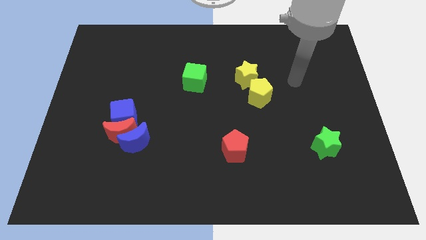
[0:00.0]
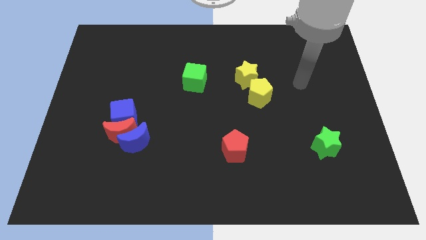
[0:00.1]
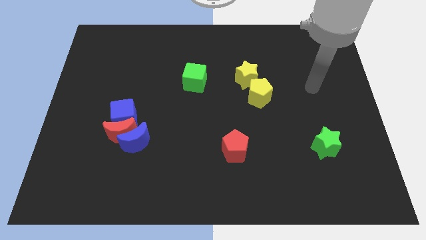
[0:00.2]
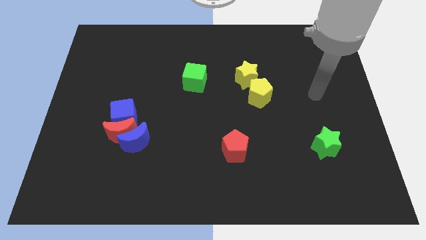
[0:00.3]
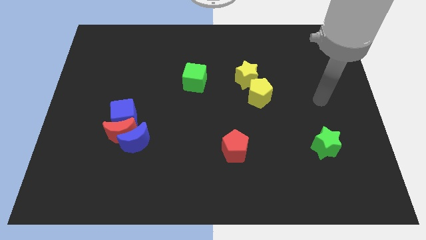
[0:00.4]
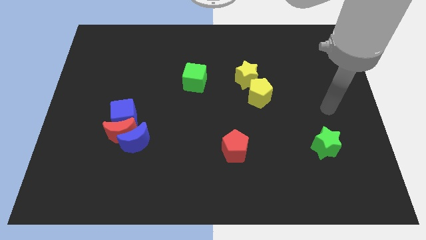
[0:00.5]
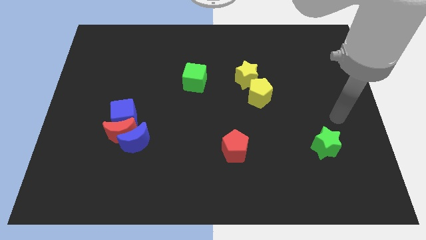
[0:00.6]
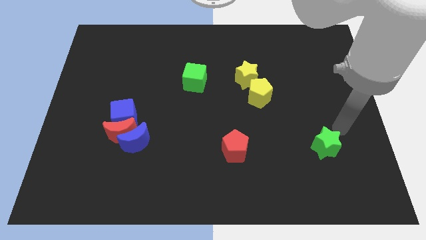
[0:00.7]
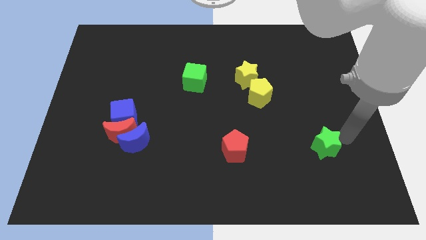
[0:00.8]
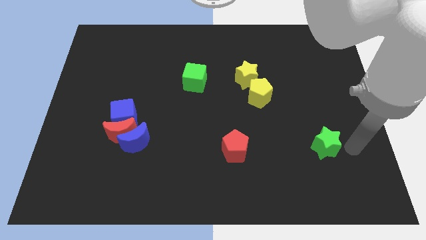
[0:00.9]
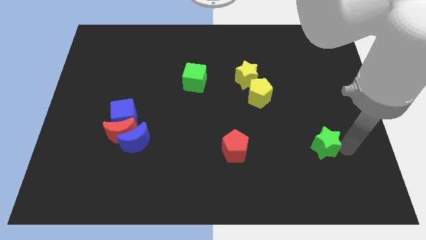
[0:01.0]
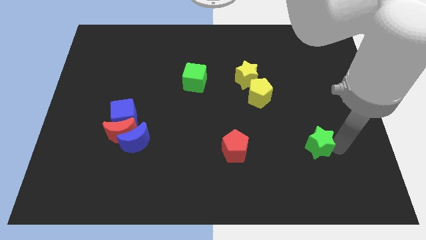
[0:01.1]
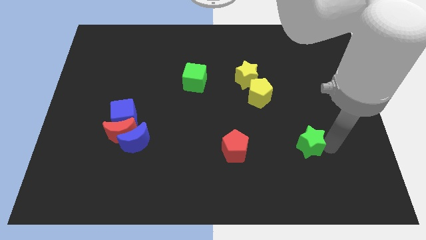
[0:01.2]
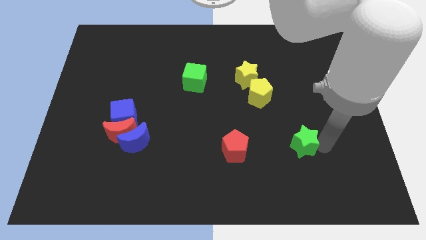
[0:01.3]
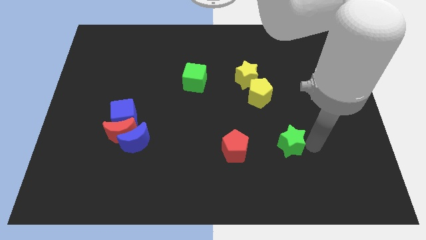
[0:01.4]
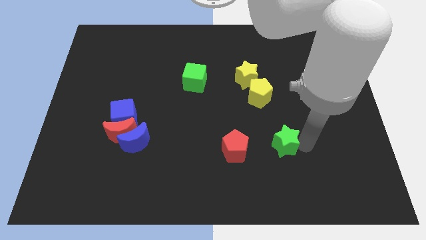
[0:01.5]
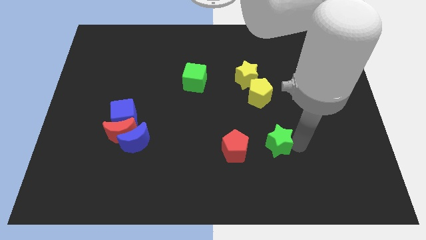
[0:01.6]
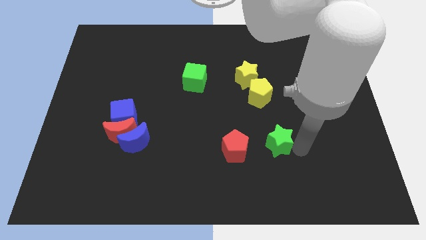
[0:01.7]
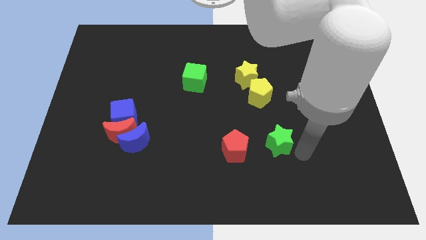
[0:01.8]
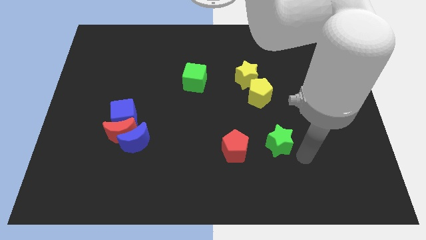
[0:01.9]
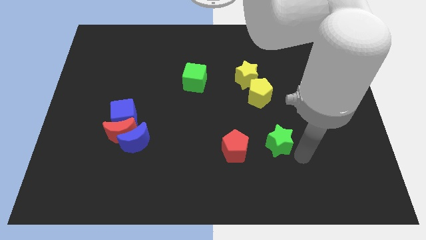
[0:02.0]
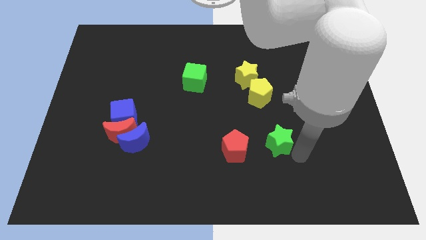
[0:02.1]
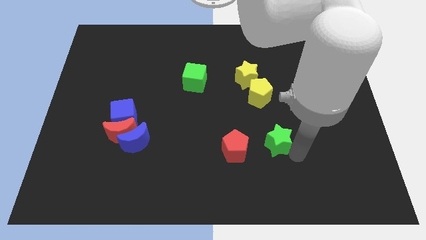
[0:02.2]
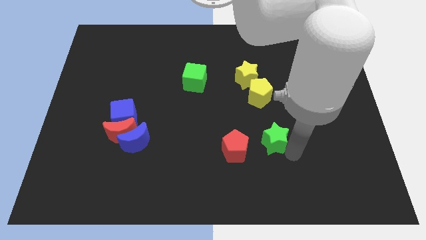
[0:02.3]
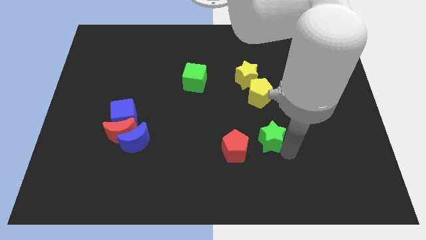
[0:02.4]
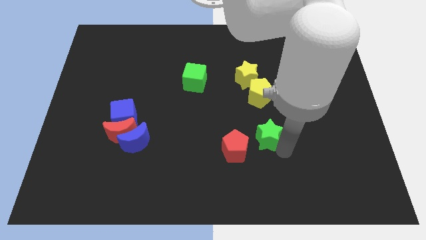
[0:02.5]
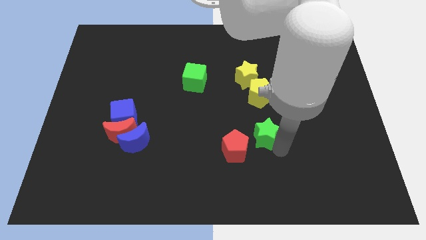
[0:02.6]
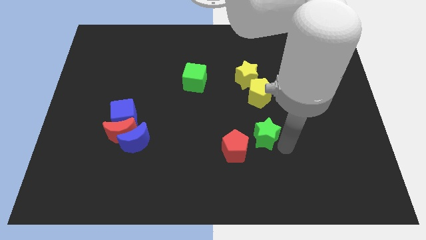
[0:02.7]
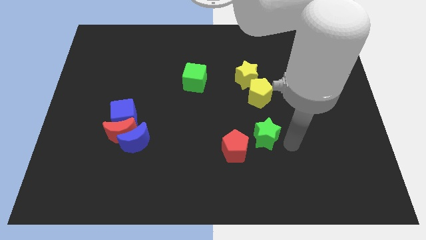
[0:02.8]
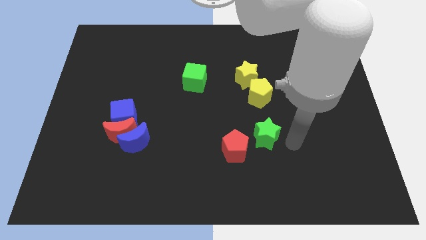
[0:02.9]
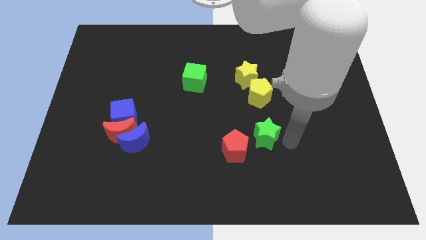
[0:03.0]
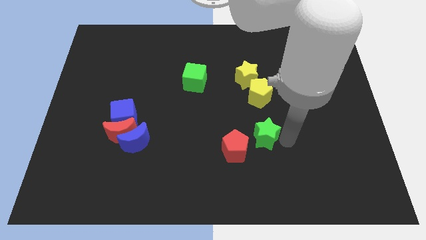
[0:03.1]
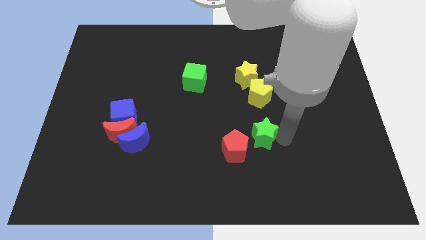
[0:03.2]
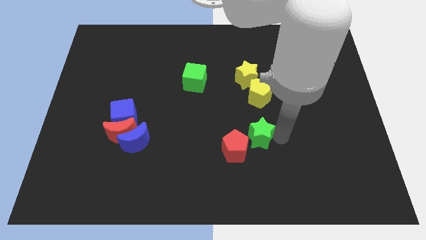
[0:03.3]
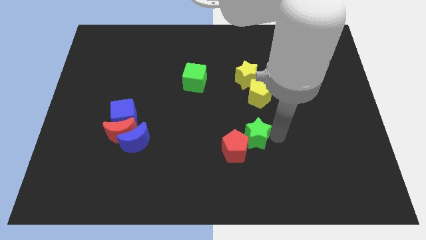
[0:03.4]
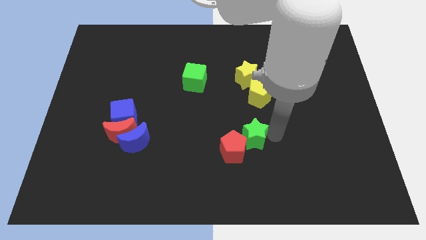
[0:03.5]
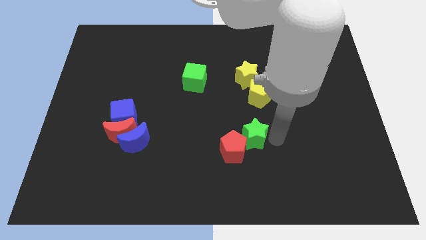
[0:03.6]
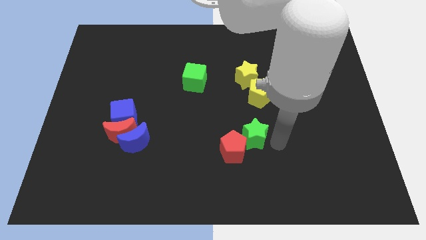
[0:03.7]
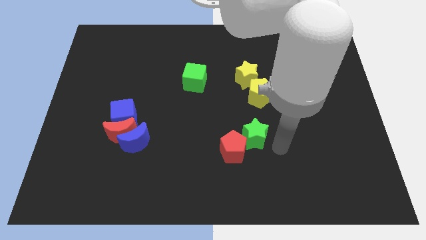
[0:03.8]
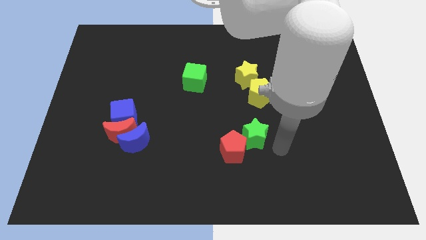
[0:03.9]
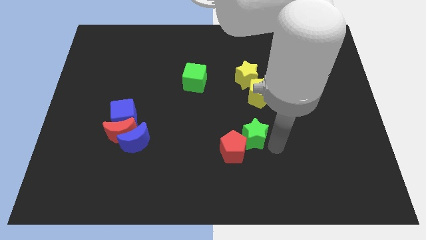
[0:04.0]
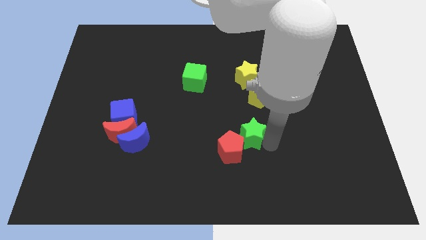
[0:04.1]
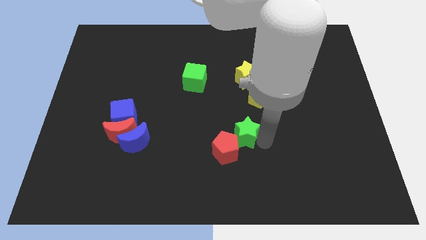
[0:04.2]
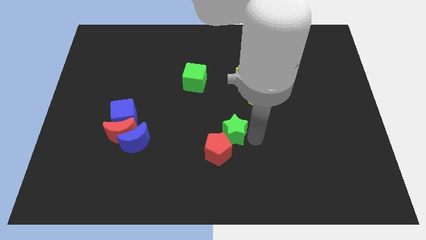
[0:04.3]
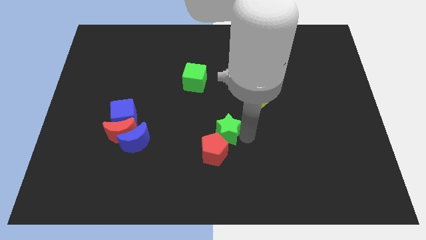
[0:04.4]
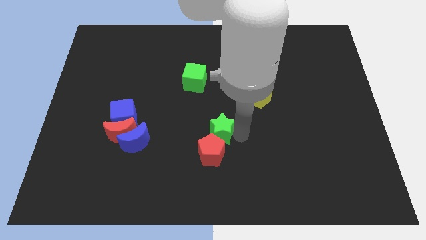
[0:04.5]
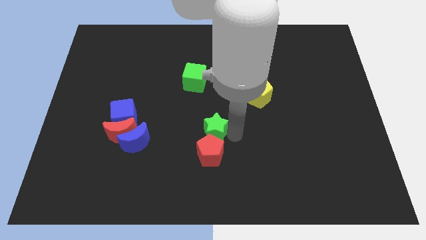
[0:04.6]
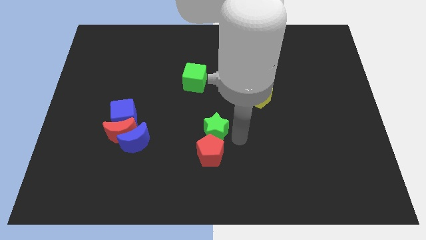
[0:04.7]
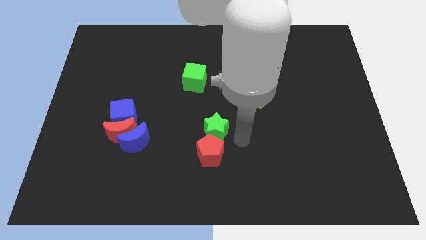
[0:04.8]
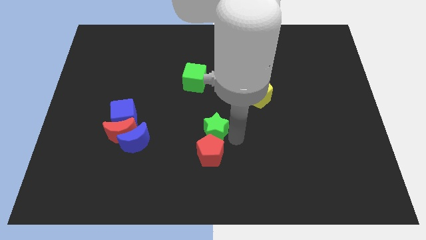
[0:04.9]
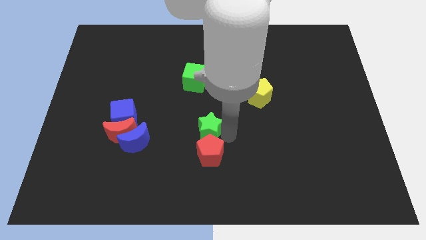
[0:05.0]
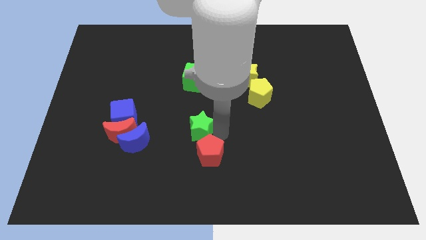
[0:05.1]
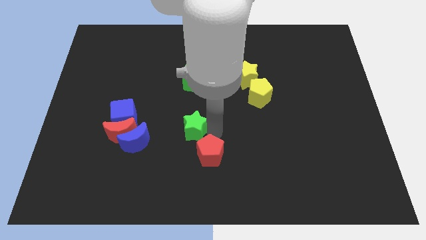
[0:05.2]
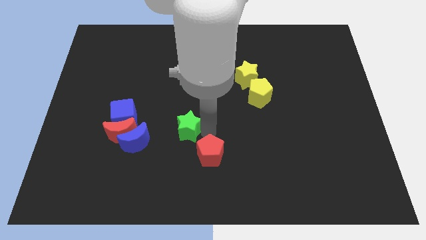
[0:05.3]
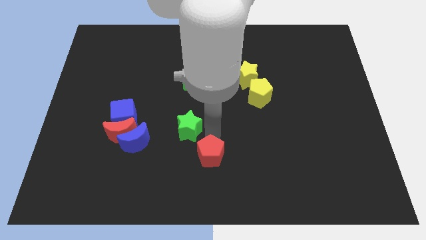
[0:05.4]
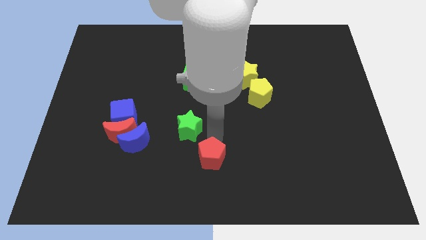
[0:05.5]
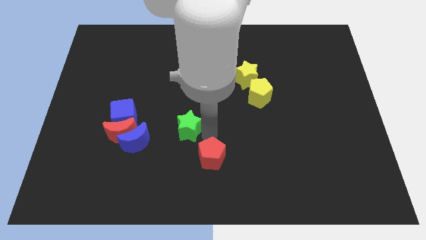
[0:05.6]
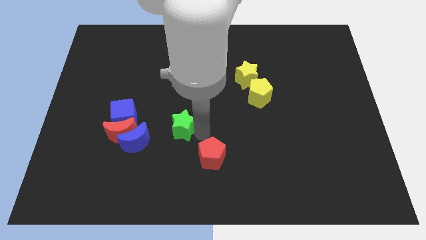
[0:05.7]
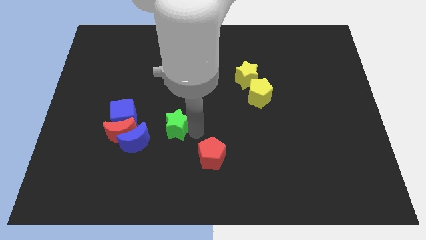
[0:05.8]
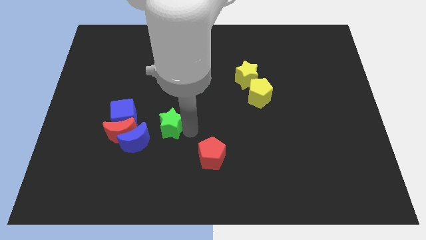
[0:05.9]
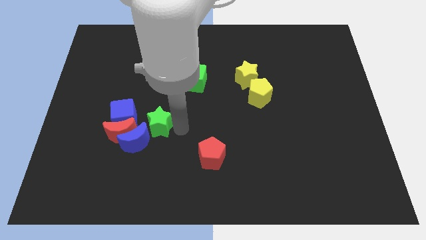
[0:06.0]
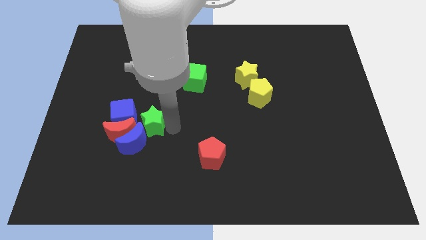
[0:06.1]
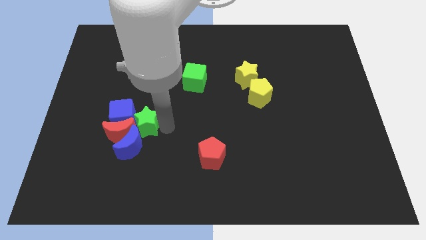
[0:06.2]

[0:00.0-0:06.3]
push the green star to the blue cube
